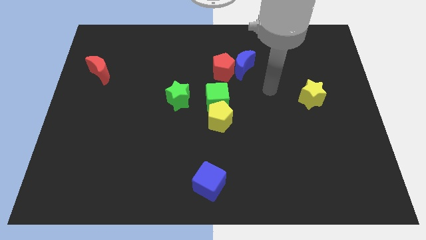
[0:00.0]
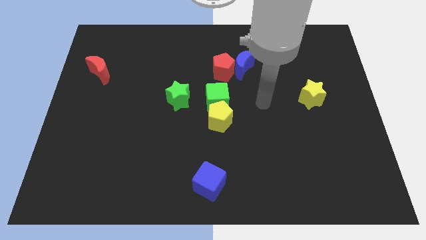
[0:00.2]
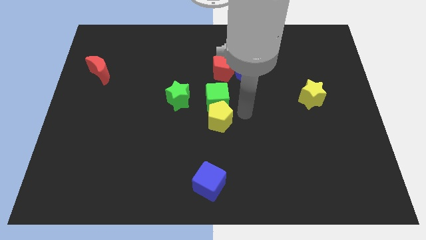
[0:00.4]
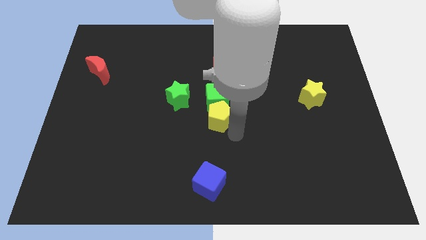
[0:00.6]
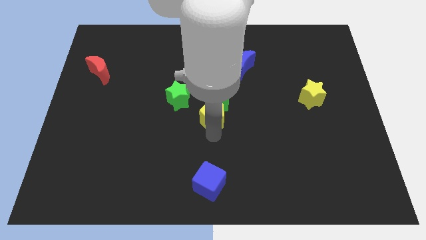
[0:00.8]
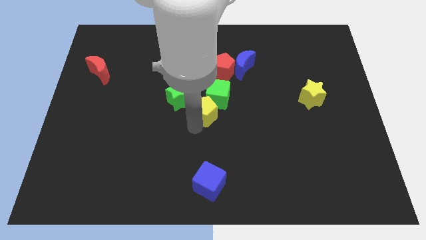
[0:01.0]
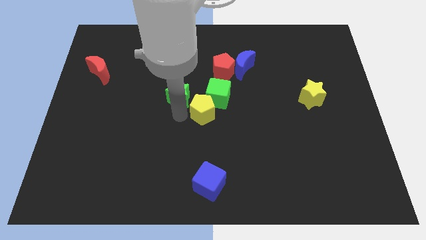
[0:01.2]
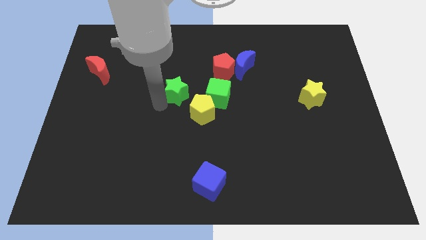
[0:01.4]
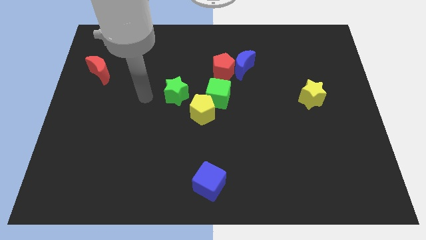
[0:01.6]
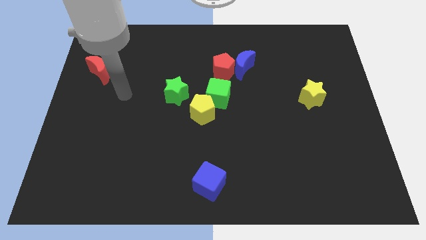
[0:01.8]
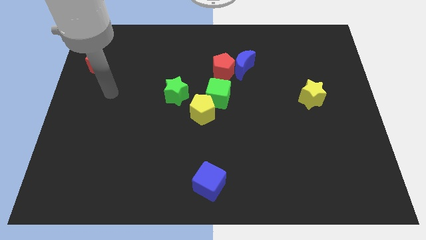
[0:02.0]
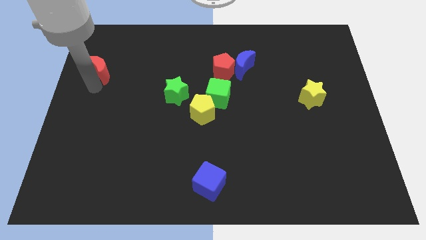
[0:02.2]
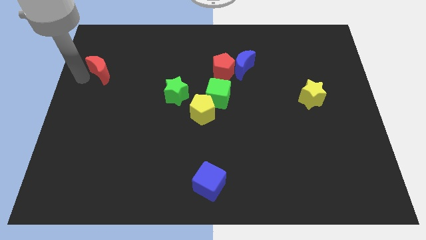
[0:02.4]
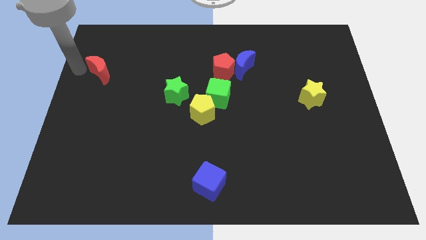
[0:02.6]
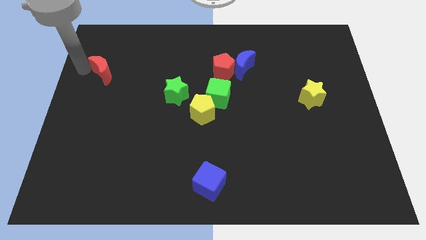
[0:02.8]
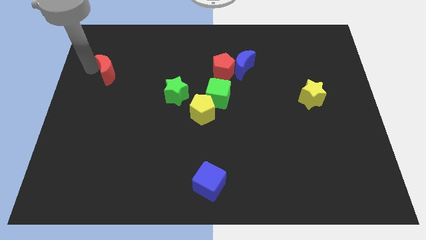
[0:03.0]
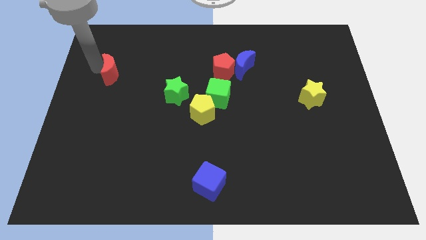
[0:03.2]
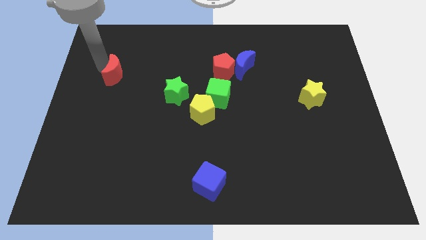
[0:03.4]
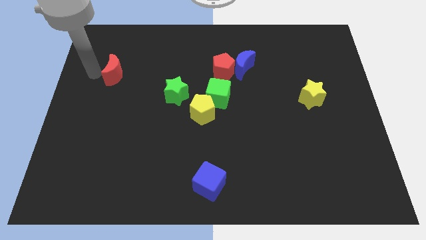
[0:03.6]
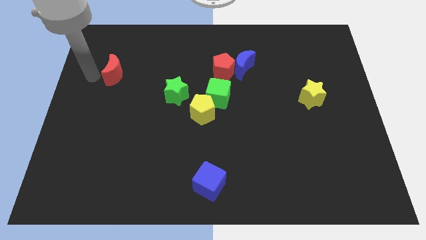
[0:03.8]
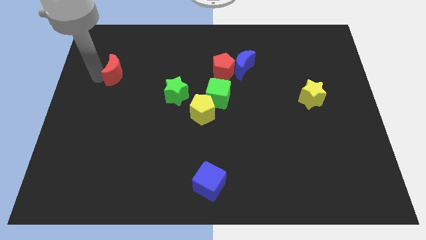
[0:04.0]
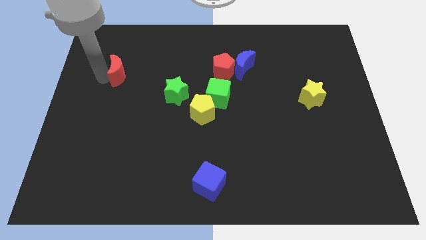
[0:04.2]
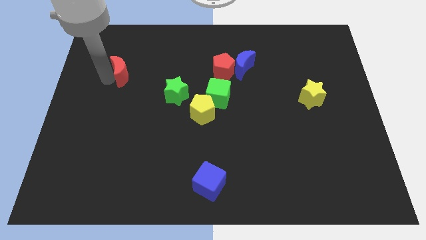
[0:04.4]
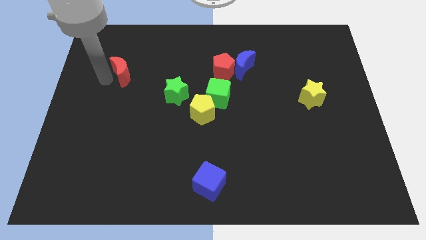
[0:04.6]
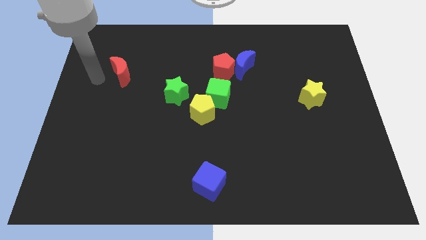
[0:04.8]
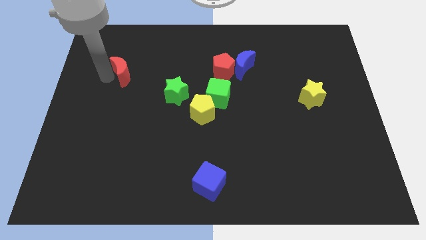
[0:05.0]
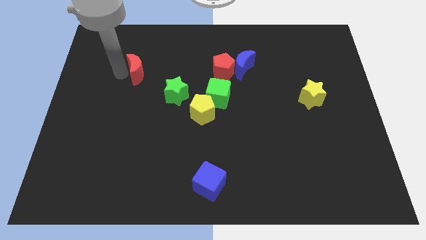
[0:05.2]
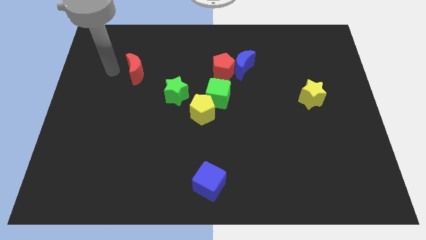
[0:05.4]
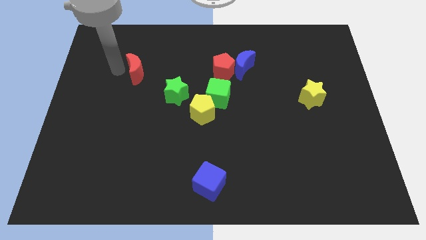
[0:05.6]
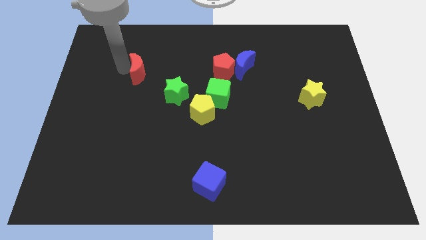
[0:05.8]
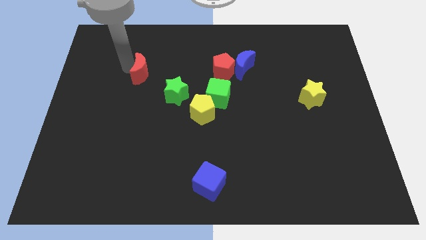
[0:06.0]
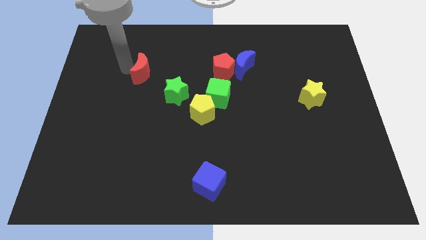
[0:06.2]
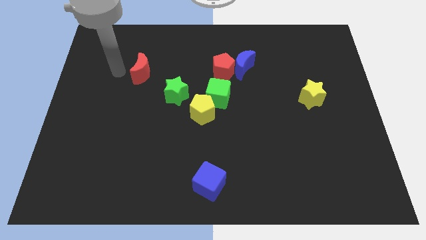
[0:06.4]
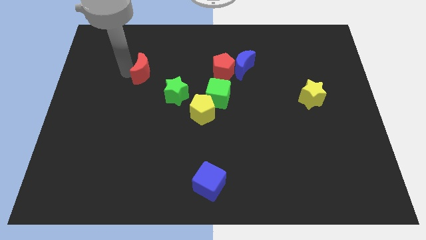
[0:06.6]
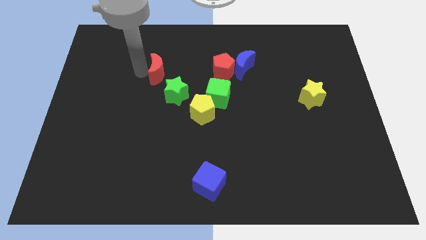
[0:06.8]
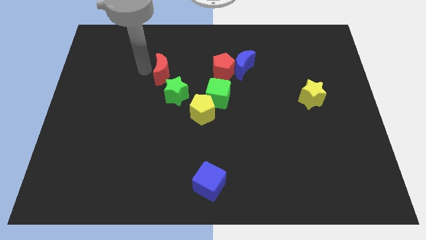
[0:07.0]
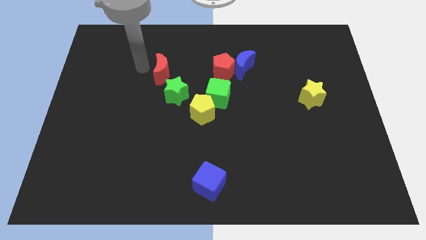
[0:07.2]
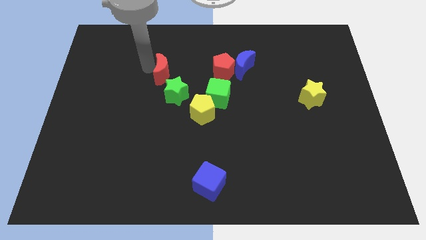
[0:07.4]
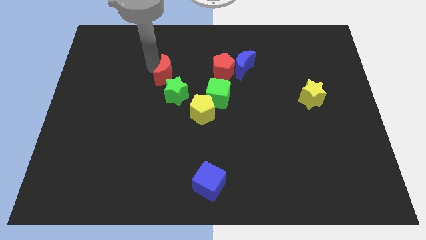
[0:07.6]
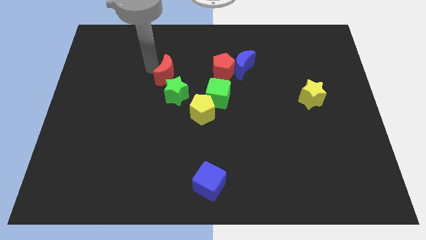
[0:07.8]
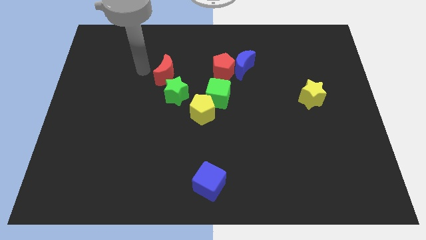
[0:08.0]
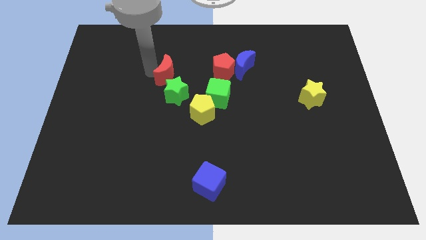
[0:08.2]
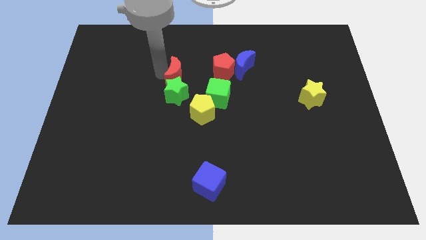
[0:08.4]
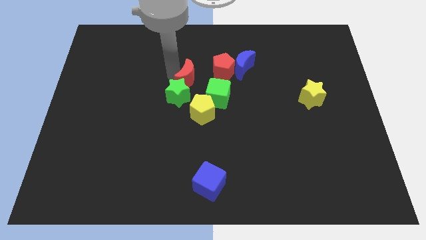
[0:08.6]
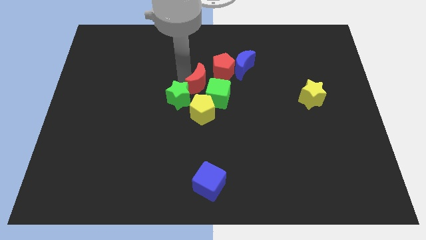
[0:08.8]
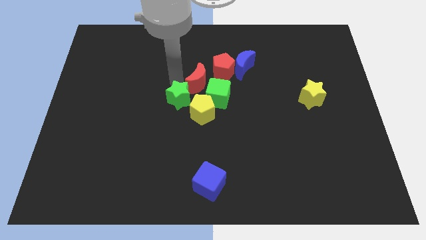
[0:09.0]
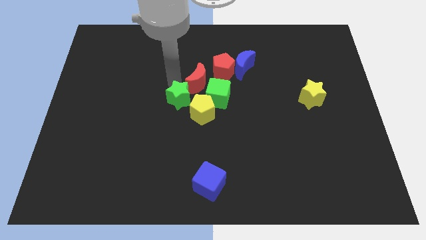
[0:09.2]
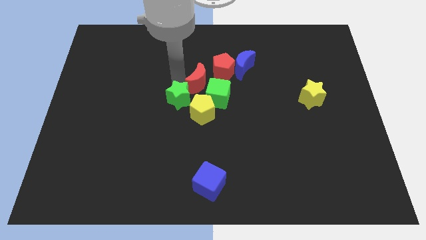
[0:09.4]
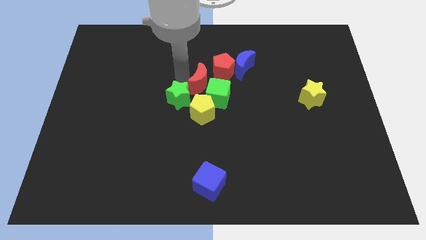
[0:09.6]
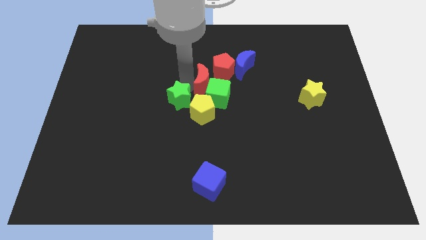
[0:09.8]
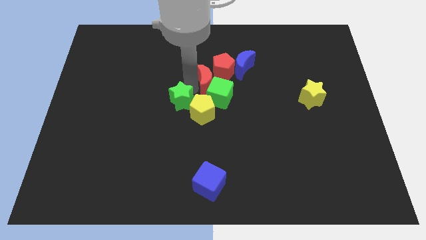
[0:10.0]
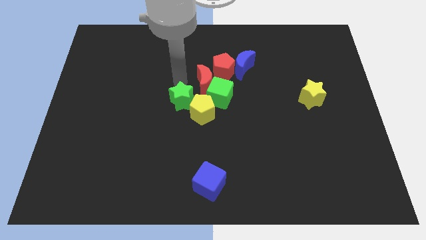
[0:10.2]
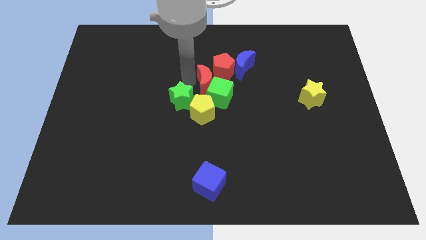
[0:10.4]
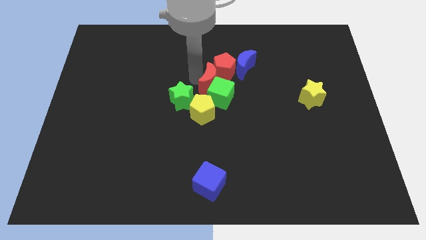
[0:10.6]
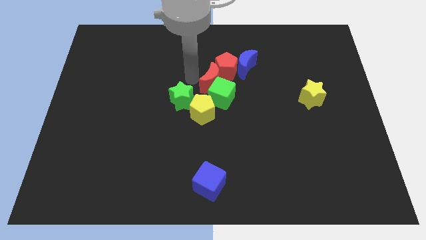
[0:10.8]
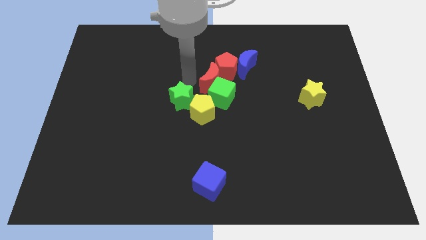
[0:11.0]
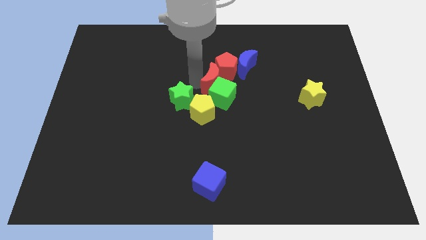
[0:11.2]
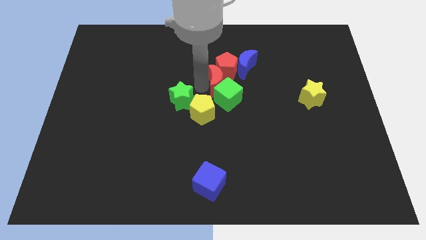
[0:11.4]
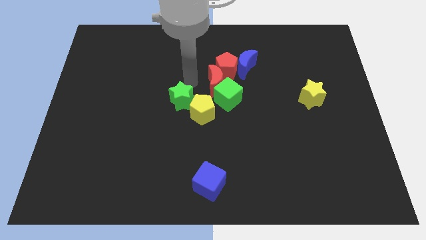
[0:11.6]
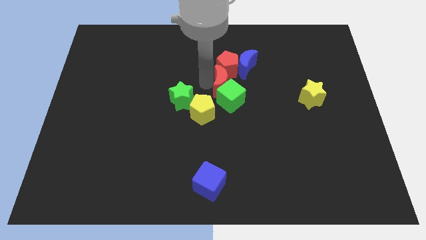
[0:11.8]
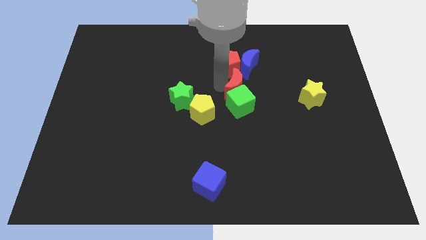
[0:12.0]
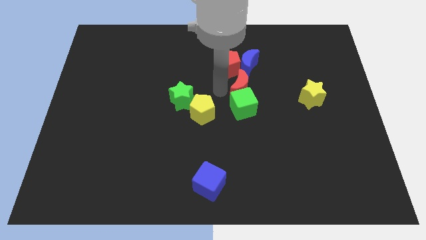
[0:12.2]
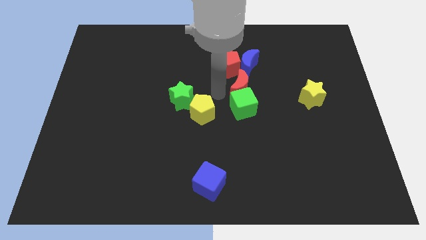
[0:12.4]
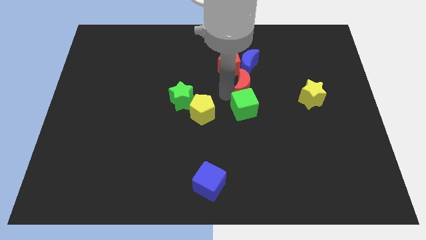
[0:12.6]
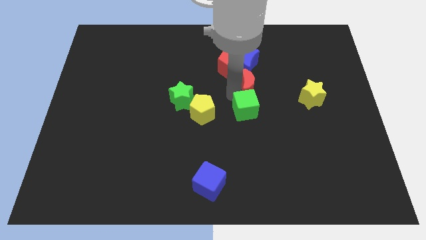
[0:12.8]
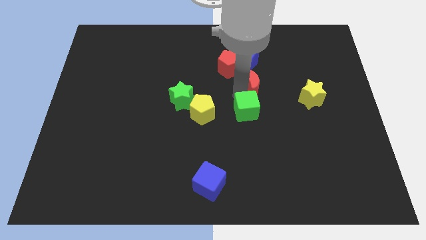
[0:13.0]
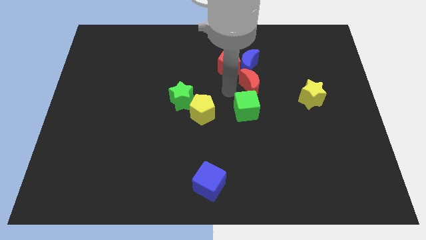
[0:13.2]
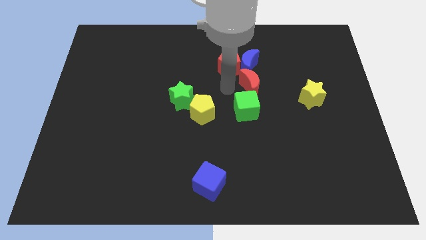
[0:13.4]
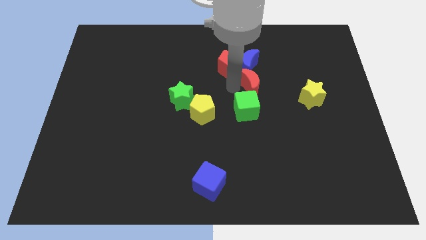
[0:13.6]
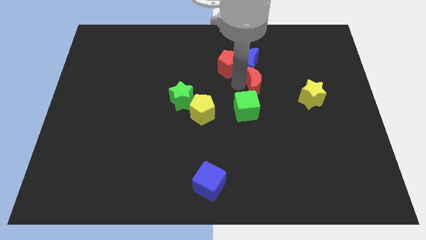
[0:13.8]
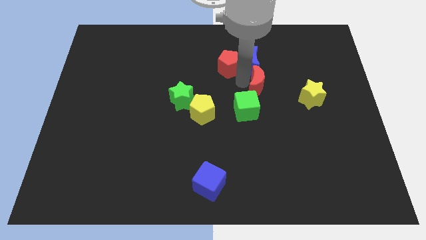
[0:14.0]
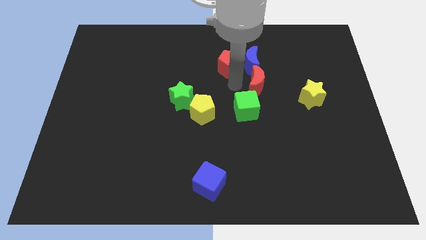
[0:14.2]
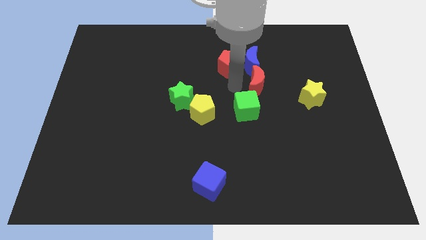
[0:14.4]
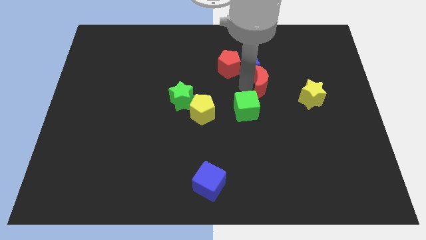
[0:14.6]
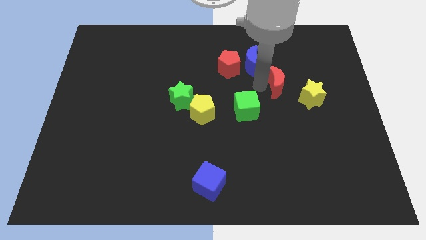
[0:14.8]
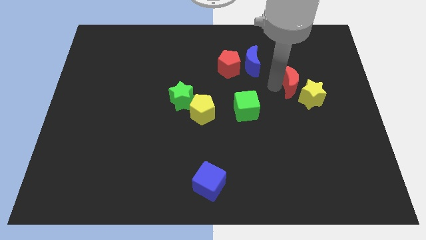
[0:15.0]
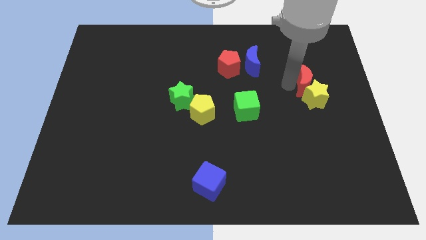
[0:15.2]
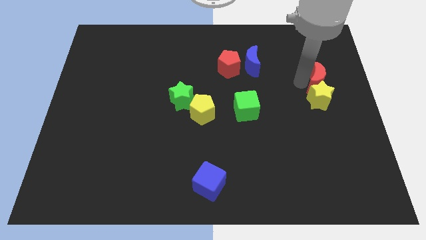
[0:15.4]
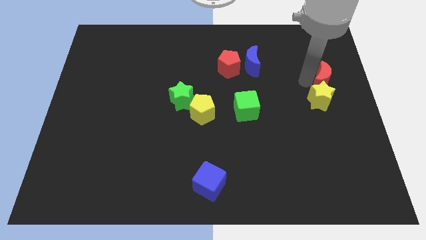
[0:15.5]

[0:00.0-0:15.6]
put the red moon to the right side of the board
